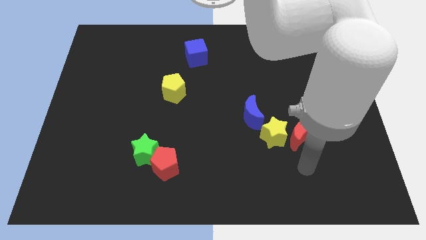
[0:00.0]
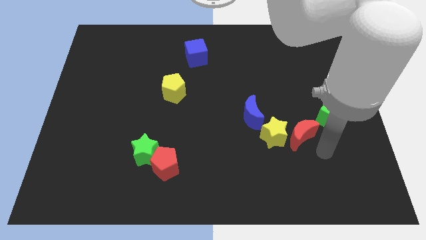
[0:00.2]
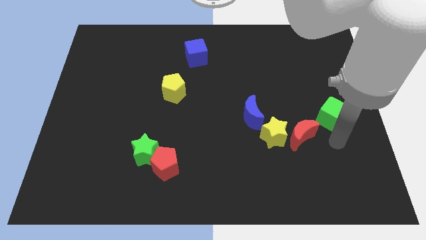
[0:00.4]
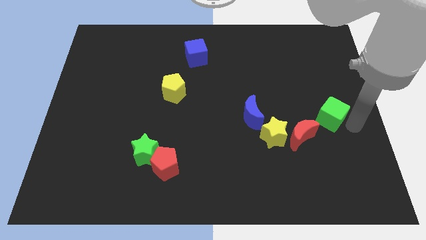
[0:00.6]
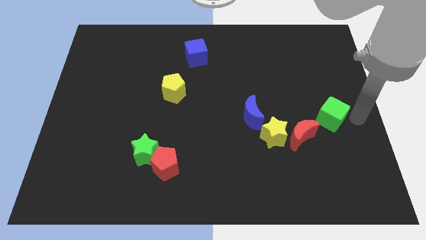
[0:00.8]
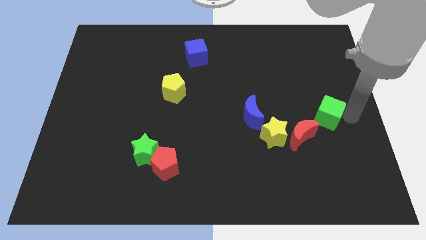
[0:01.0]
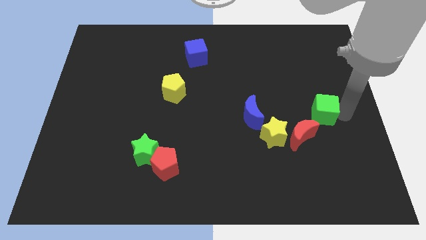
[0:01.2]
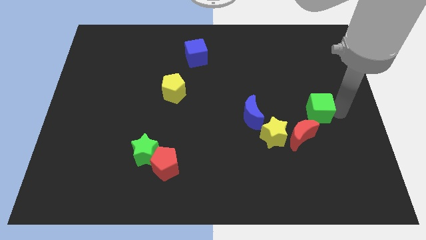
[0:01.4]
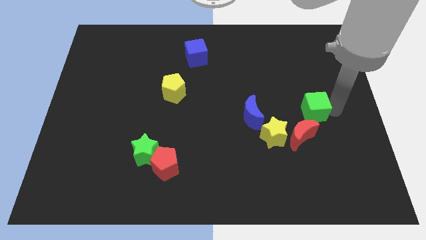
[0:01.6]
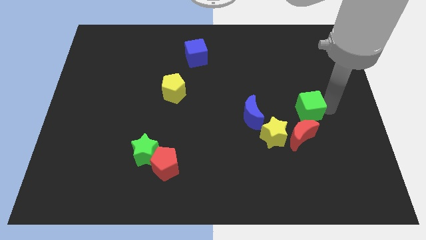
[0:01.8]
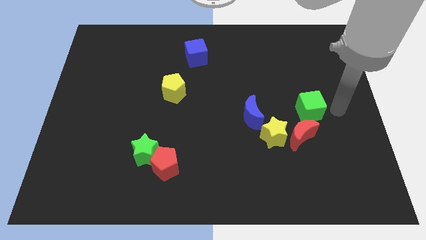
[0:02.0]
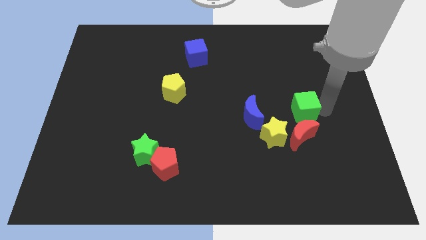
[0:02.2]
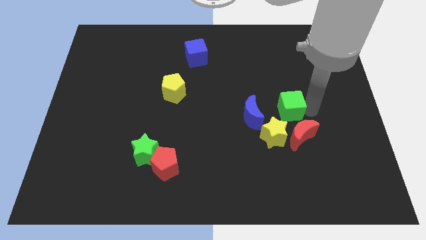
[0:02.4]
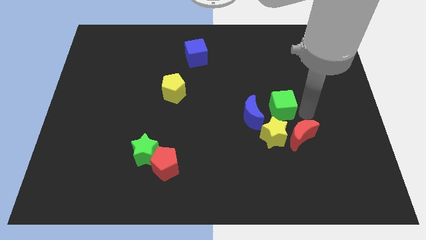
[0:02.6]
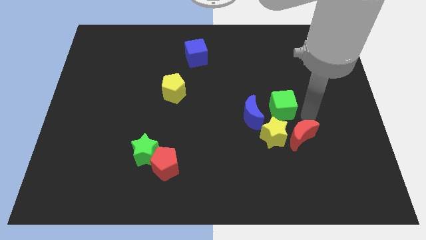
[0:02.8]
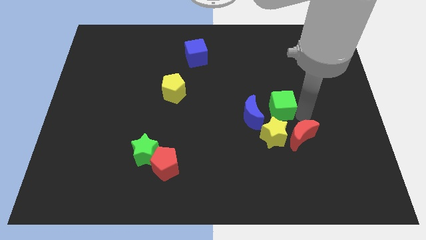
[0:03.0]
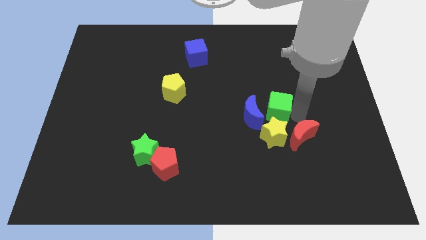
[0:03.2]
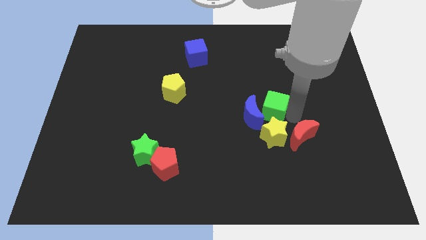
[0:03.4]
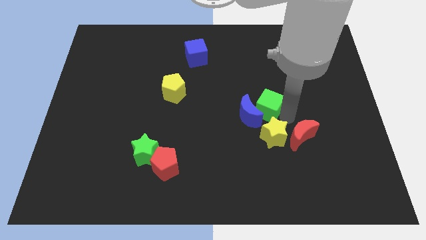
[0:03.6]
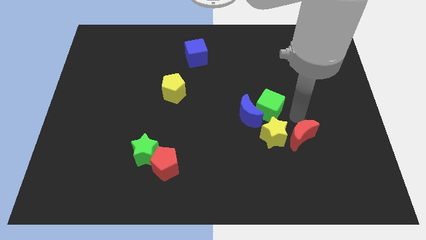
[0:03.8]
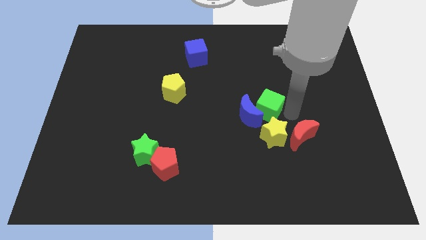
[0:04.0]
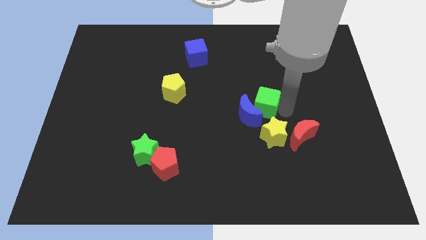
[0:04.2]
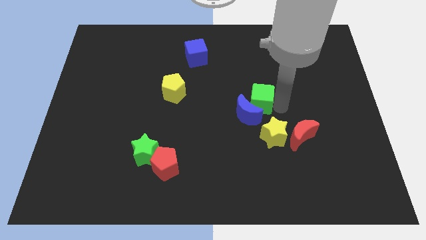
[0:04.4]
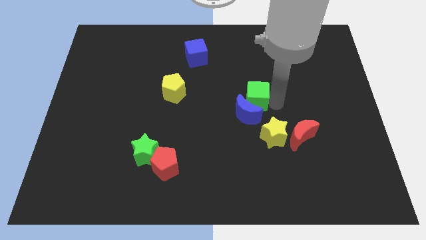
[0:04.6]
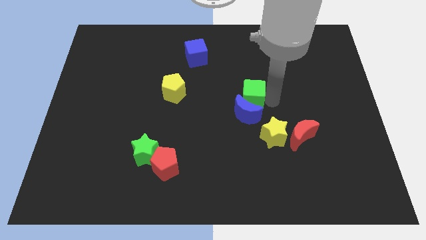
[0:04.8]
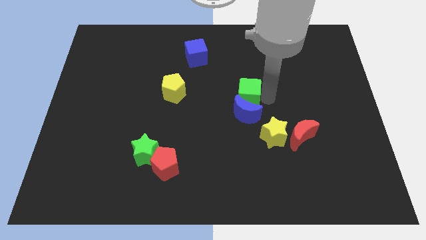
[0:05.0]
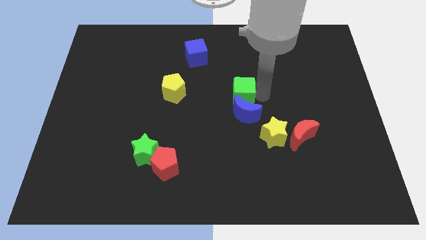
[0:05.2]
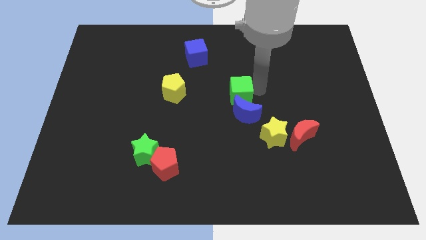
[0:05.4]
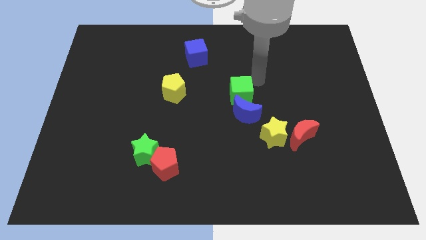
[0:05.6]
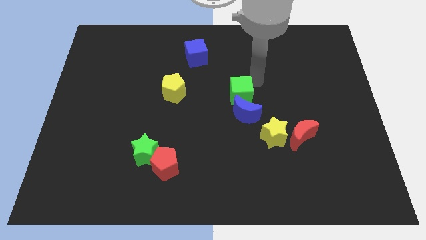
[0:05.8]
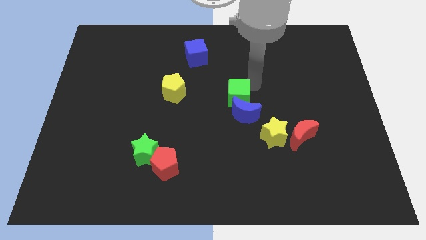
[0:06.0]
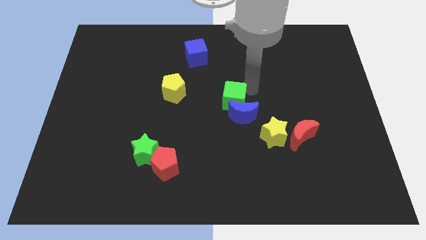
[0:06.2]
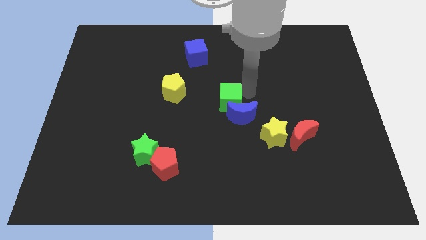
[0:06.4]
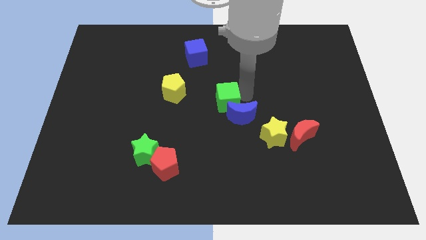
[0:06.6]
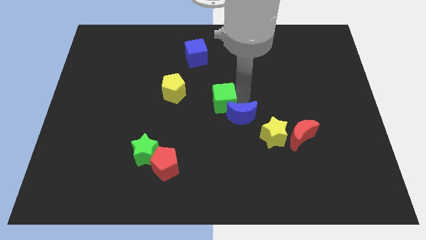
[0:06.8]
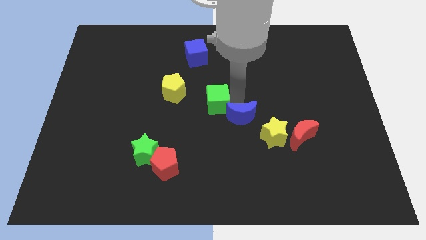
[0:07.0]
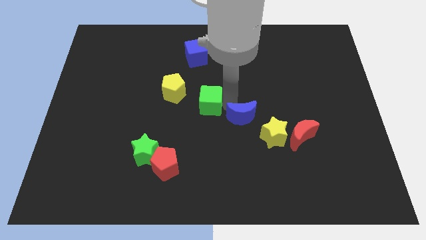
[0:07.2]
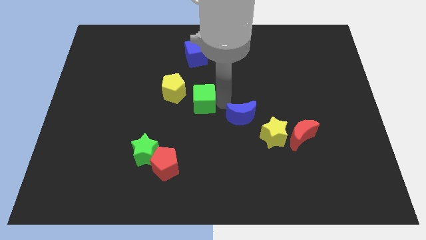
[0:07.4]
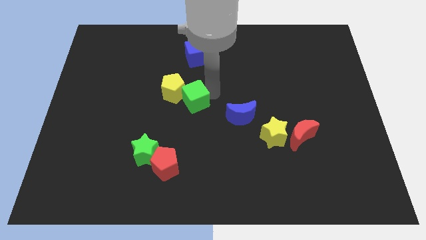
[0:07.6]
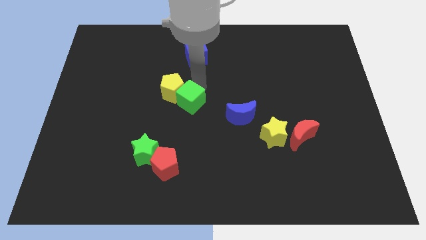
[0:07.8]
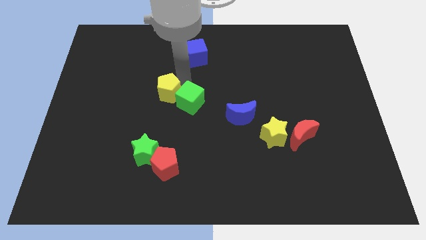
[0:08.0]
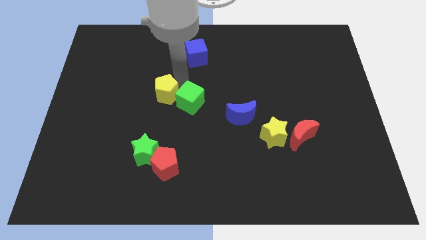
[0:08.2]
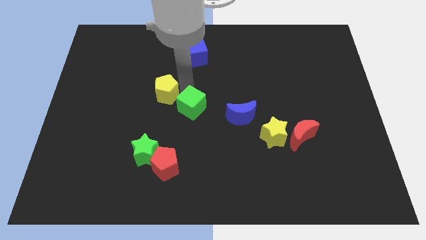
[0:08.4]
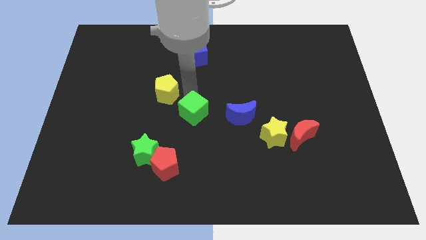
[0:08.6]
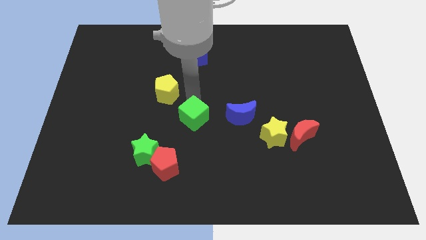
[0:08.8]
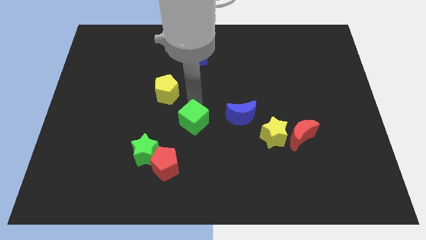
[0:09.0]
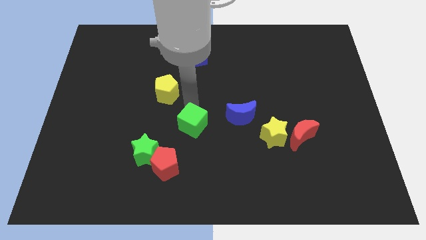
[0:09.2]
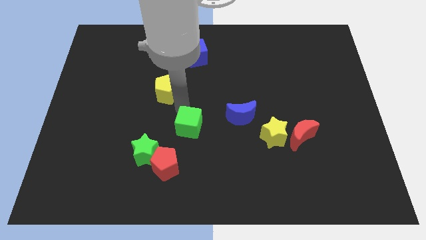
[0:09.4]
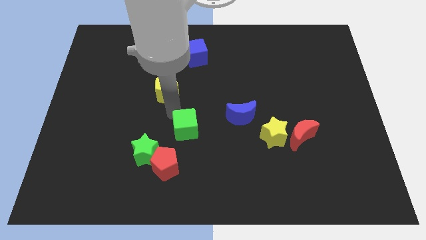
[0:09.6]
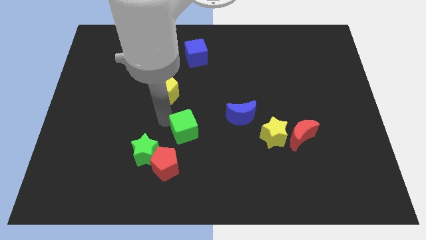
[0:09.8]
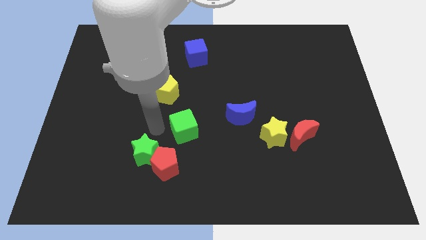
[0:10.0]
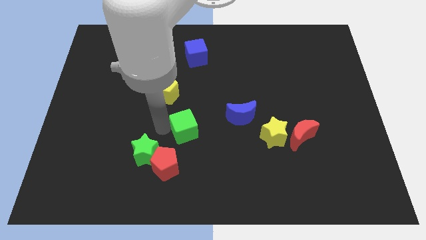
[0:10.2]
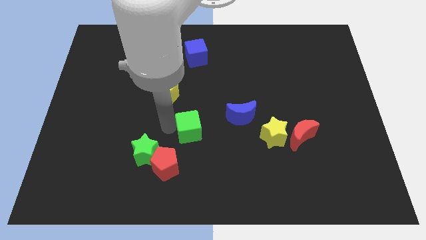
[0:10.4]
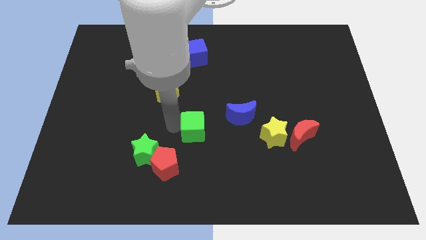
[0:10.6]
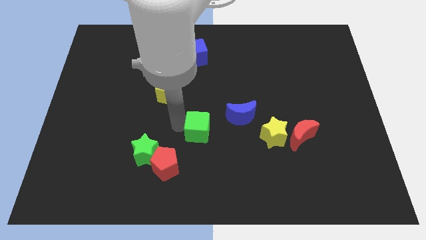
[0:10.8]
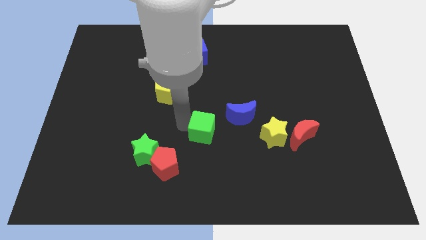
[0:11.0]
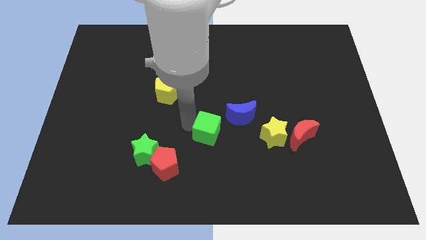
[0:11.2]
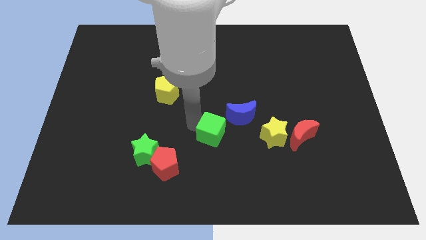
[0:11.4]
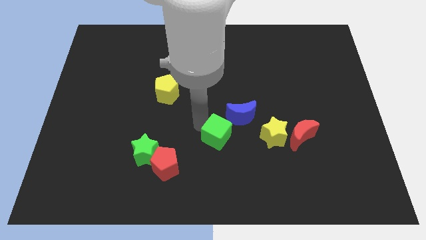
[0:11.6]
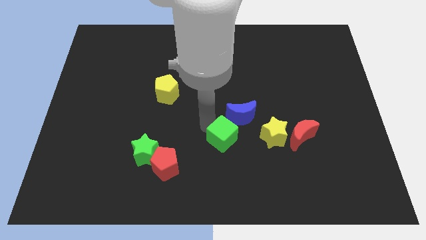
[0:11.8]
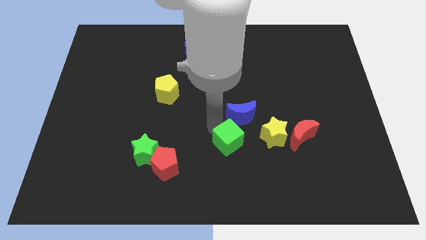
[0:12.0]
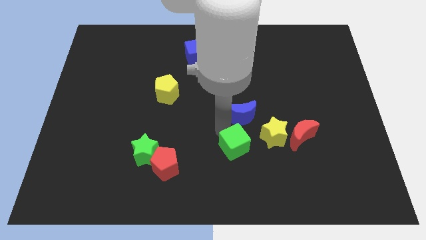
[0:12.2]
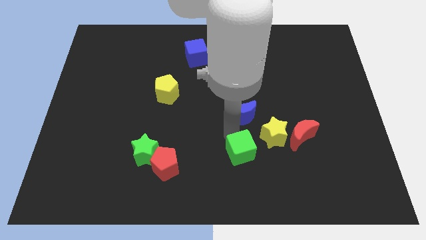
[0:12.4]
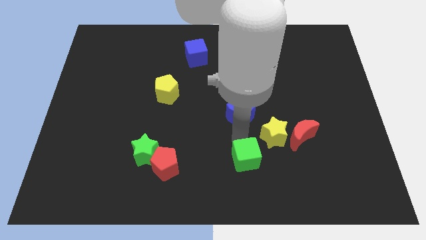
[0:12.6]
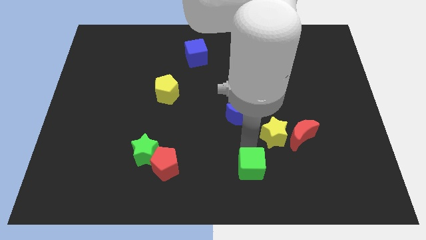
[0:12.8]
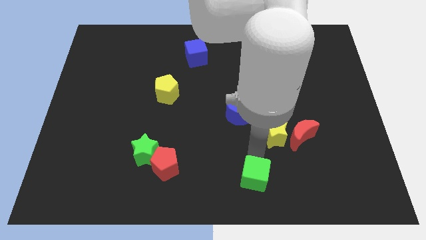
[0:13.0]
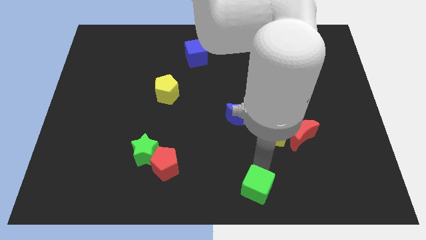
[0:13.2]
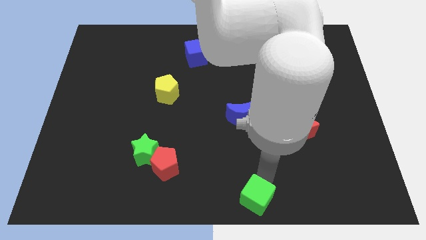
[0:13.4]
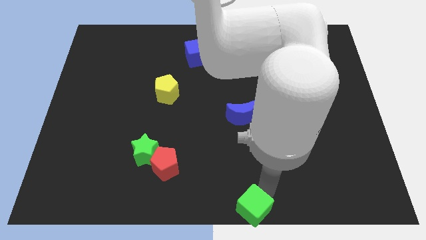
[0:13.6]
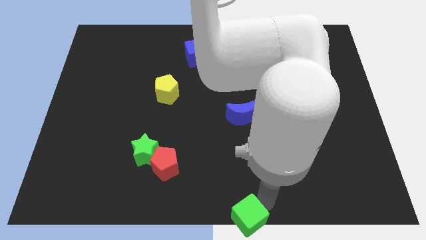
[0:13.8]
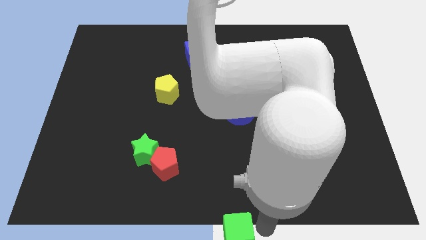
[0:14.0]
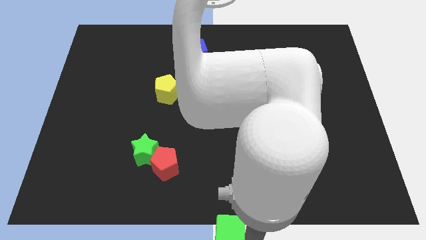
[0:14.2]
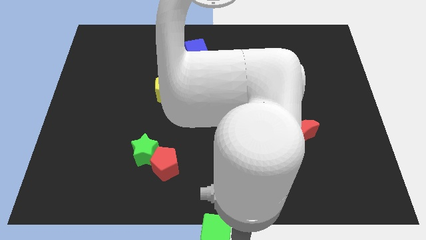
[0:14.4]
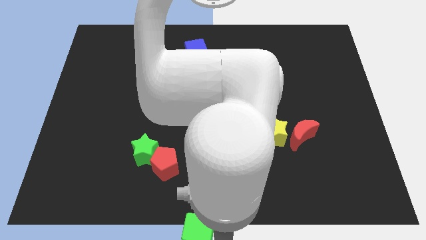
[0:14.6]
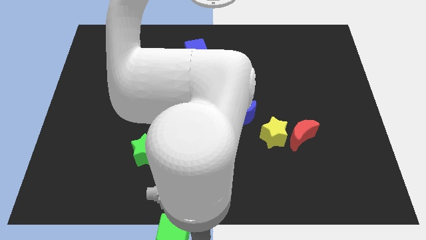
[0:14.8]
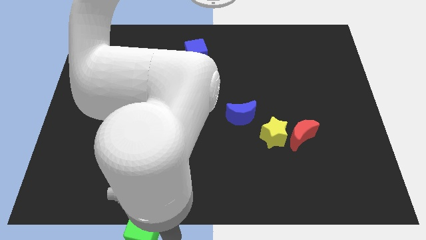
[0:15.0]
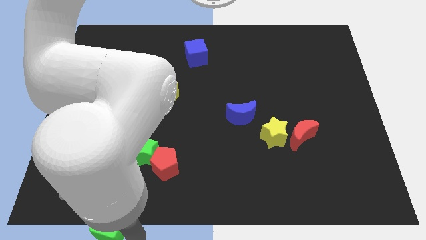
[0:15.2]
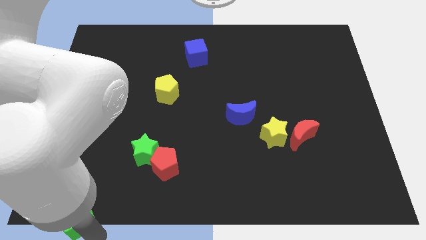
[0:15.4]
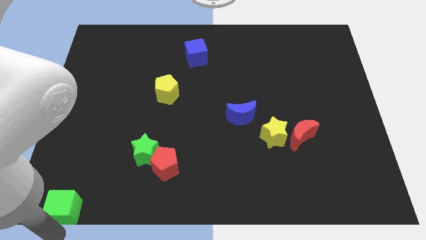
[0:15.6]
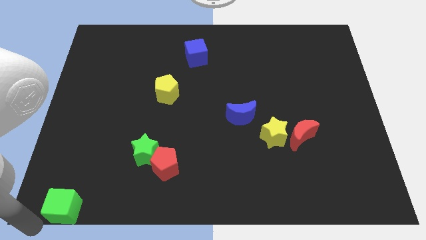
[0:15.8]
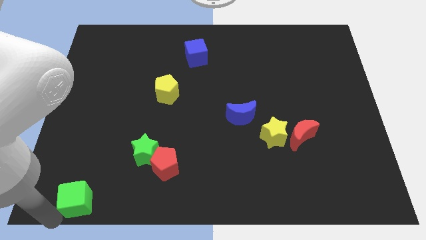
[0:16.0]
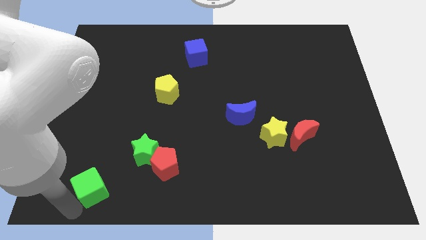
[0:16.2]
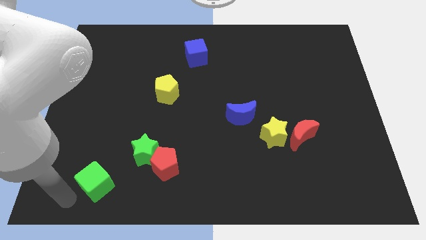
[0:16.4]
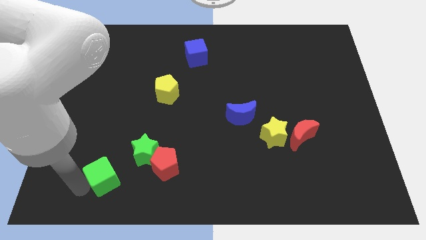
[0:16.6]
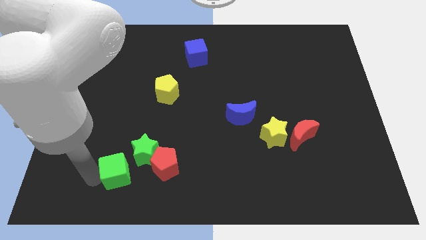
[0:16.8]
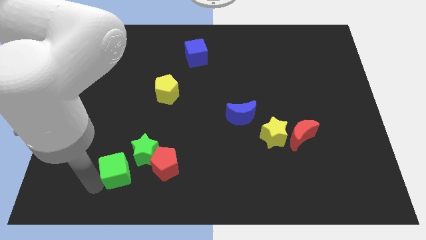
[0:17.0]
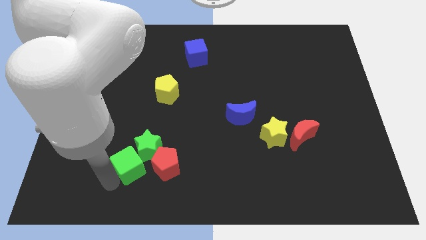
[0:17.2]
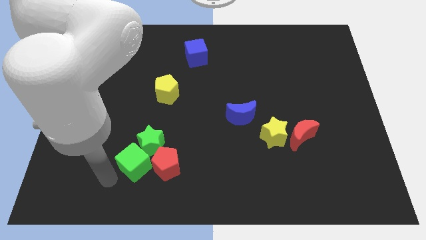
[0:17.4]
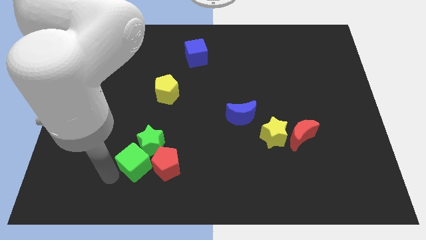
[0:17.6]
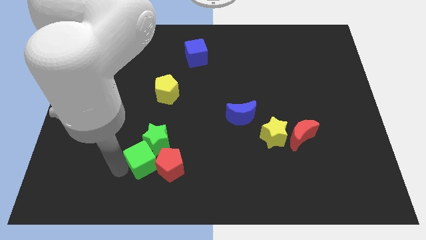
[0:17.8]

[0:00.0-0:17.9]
move the green cube close to the red pentagon
